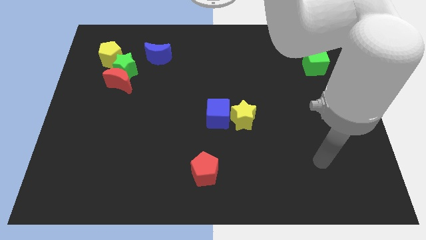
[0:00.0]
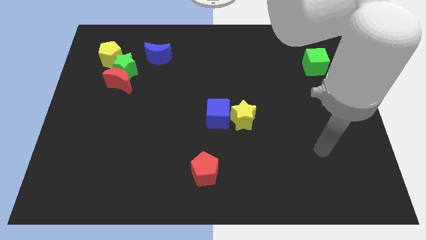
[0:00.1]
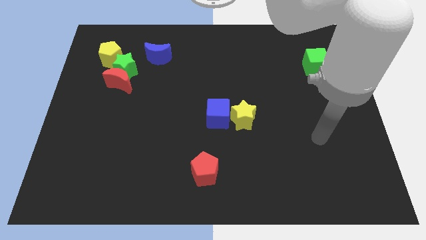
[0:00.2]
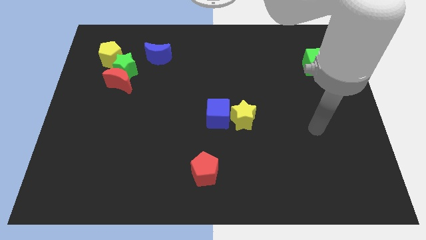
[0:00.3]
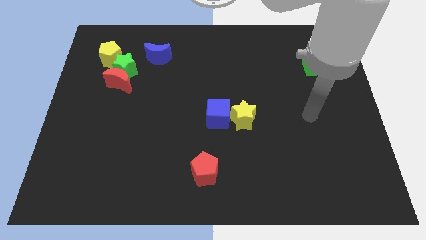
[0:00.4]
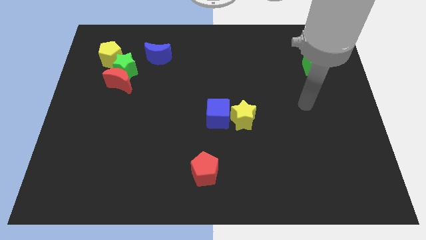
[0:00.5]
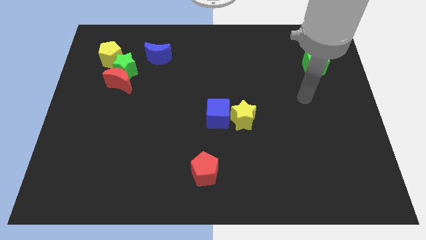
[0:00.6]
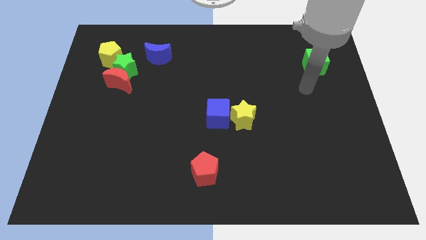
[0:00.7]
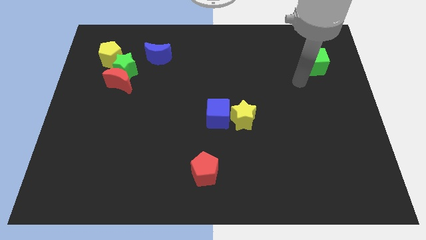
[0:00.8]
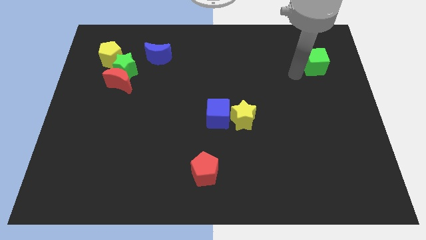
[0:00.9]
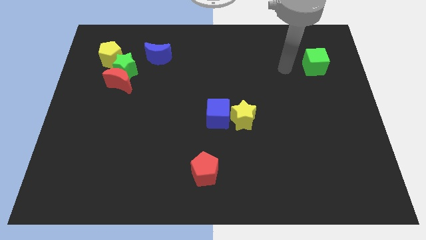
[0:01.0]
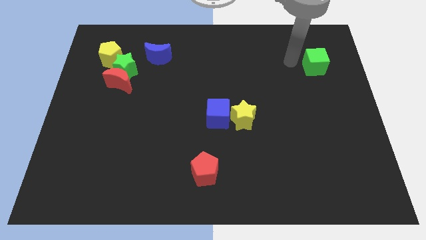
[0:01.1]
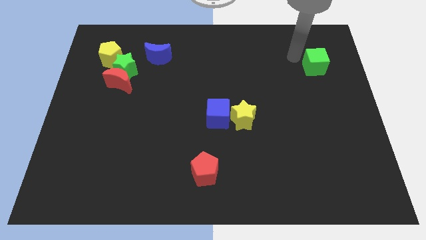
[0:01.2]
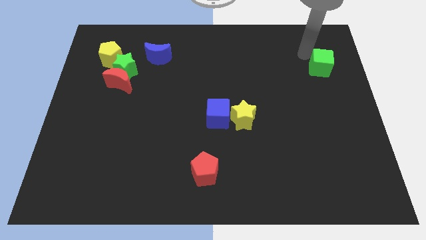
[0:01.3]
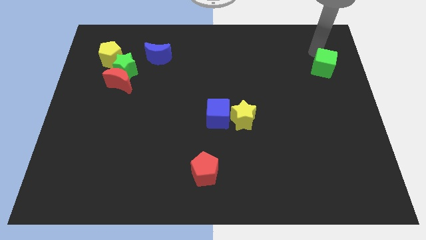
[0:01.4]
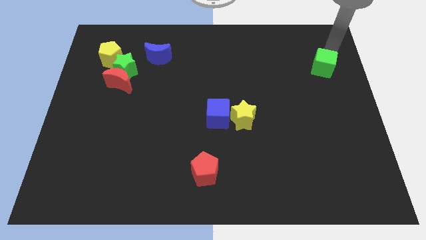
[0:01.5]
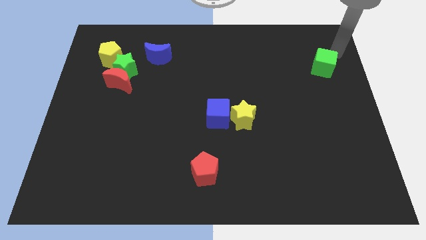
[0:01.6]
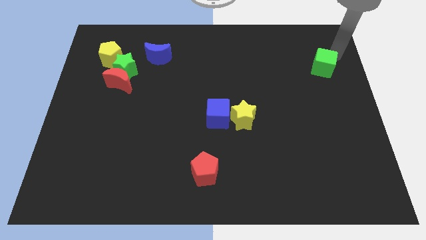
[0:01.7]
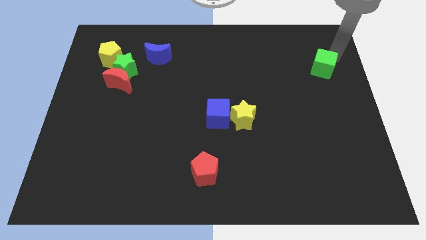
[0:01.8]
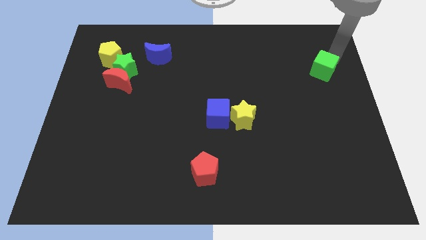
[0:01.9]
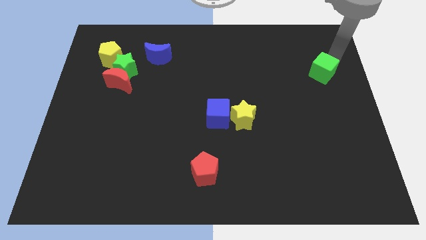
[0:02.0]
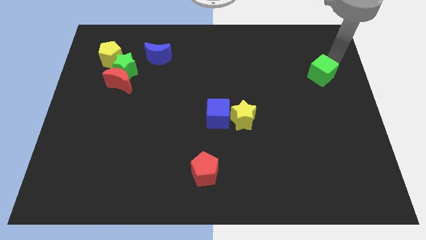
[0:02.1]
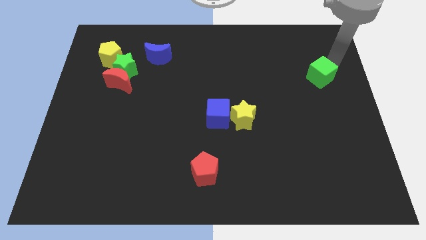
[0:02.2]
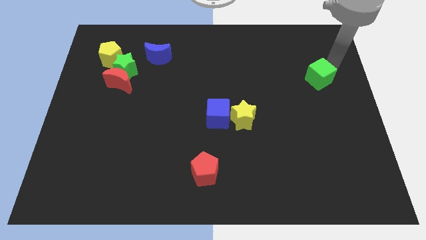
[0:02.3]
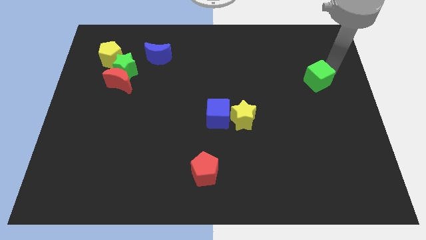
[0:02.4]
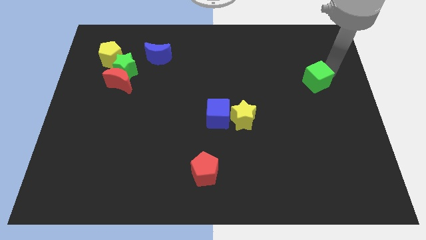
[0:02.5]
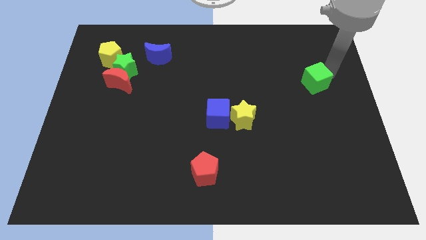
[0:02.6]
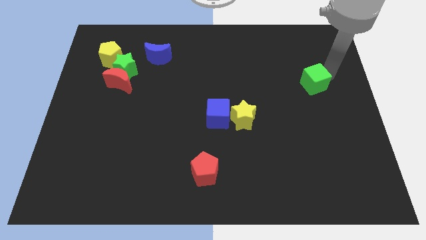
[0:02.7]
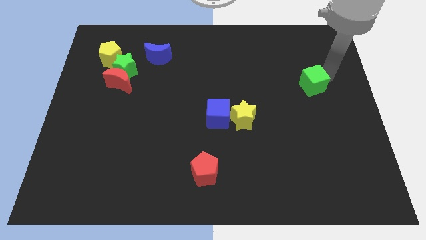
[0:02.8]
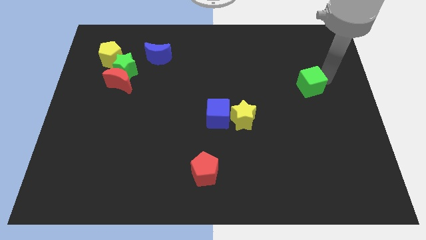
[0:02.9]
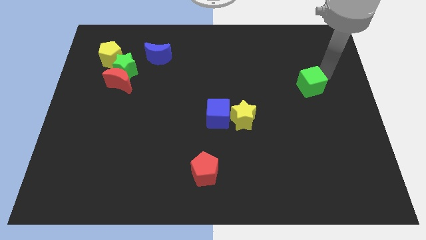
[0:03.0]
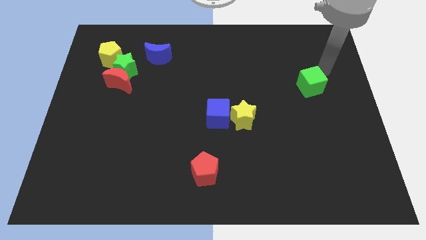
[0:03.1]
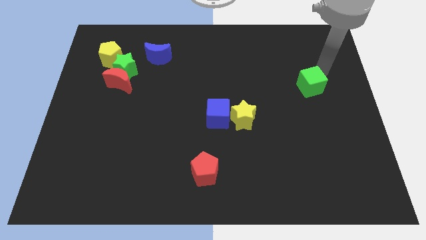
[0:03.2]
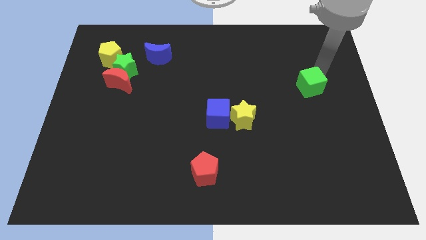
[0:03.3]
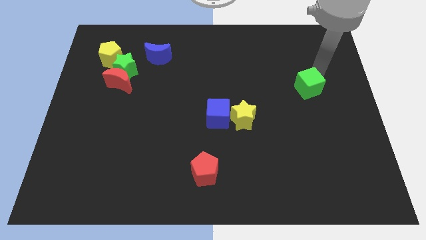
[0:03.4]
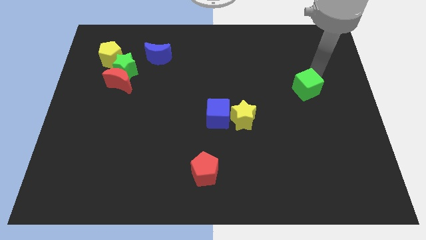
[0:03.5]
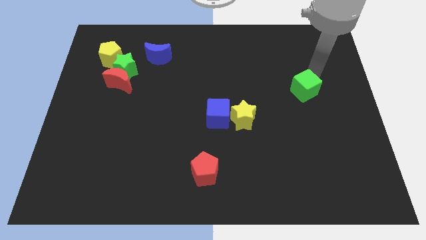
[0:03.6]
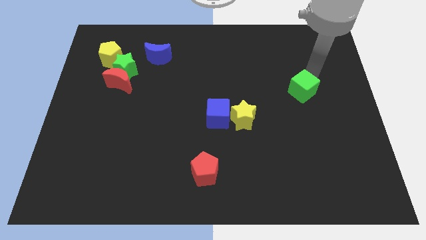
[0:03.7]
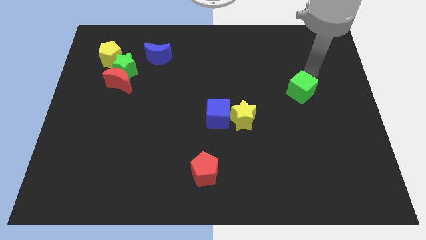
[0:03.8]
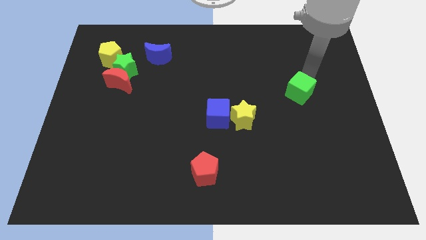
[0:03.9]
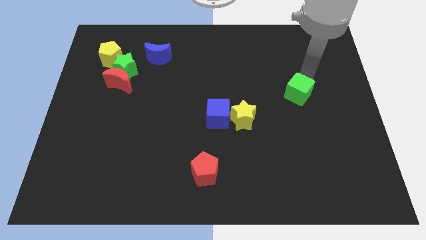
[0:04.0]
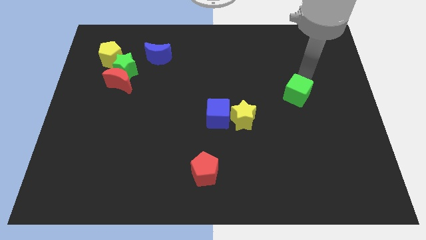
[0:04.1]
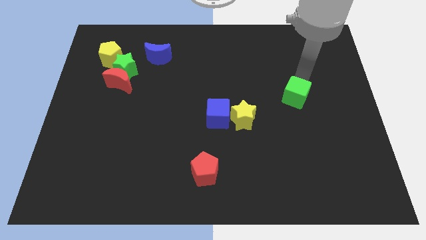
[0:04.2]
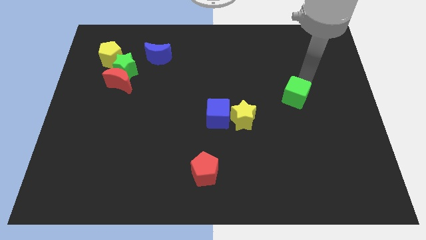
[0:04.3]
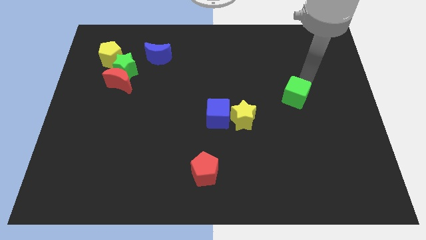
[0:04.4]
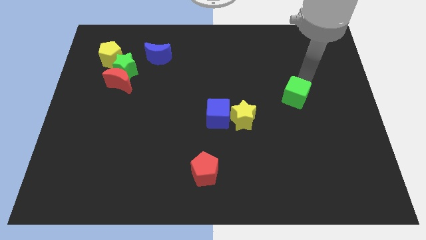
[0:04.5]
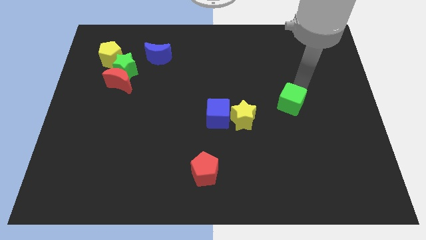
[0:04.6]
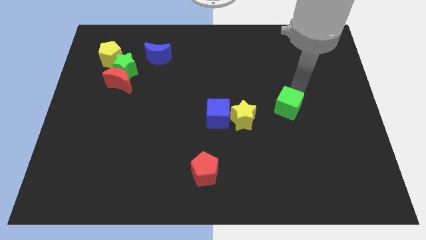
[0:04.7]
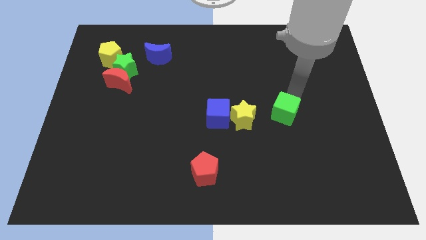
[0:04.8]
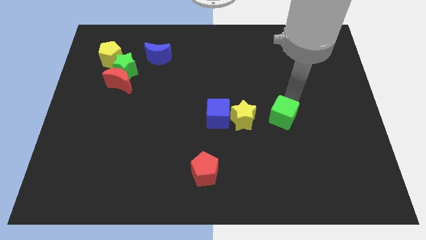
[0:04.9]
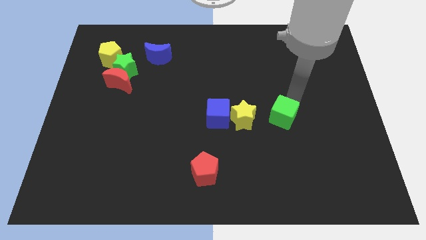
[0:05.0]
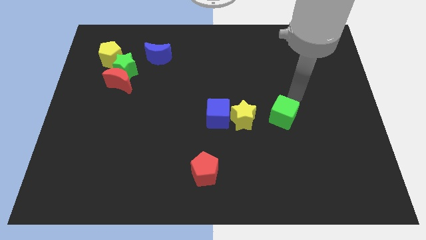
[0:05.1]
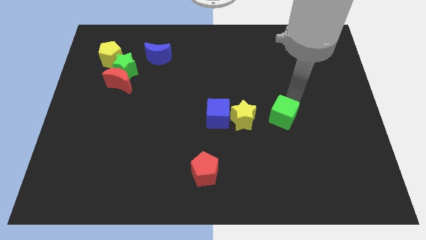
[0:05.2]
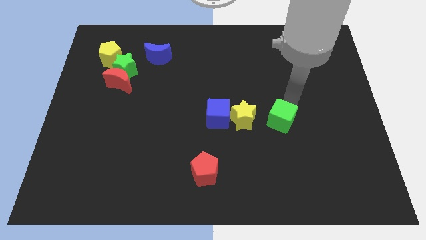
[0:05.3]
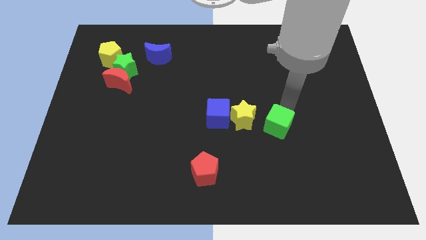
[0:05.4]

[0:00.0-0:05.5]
slide the green cube diagonally down and to the left

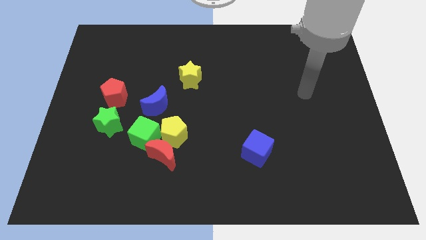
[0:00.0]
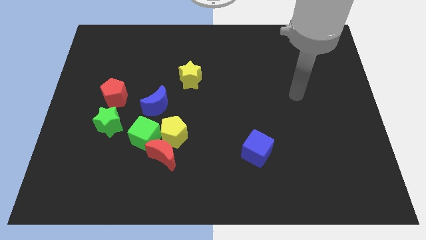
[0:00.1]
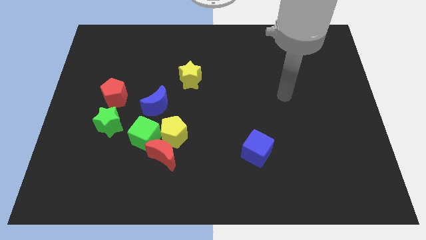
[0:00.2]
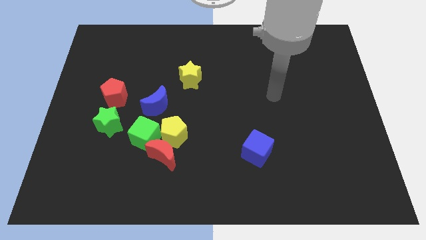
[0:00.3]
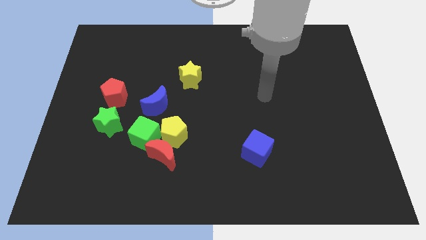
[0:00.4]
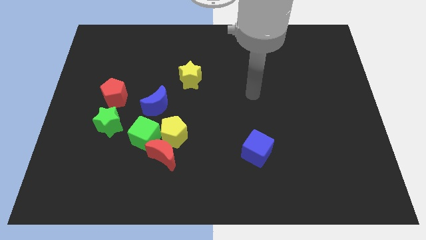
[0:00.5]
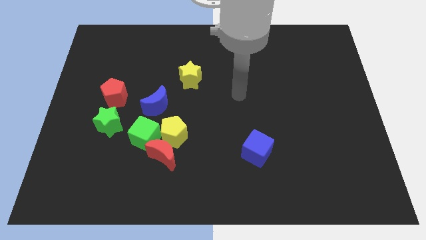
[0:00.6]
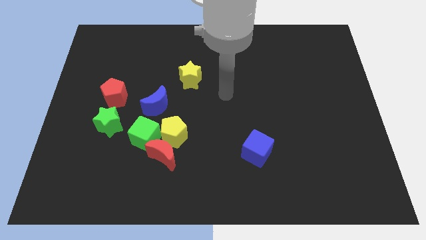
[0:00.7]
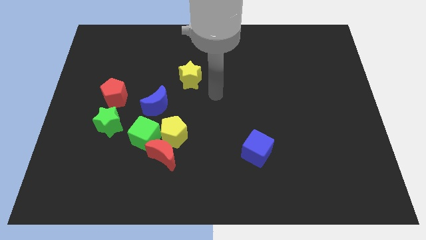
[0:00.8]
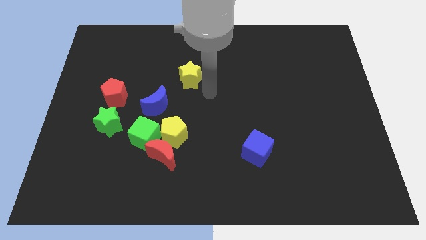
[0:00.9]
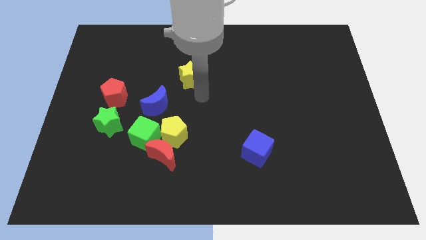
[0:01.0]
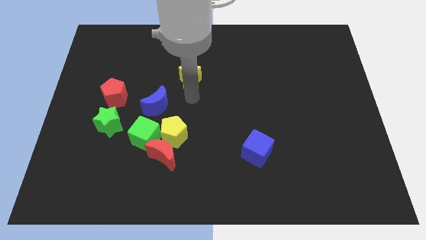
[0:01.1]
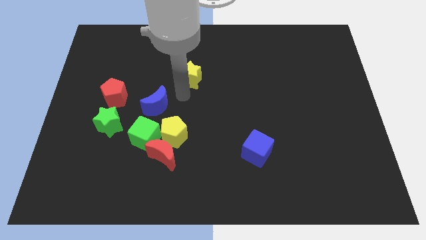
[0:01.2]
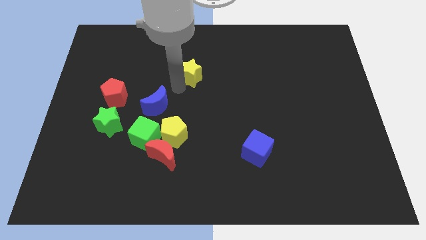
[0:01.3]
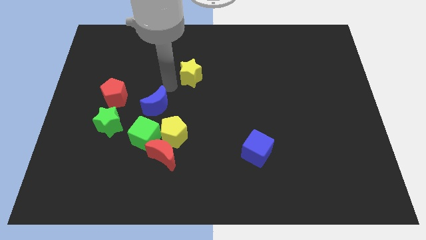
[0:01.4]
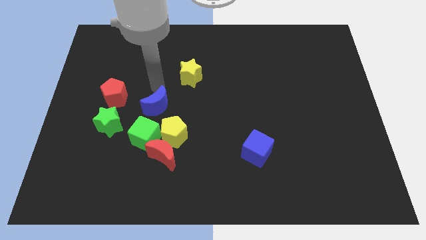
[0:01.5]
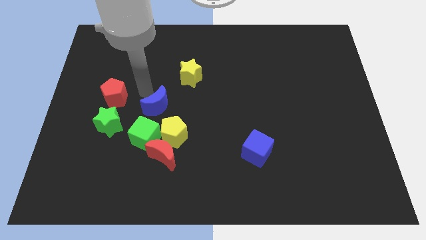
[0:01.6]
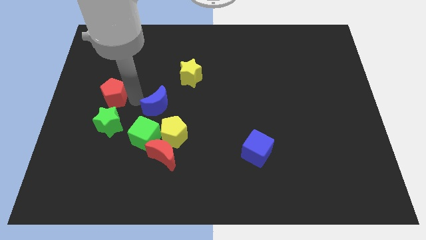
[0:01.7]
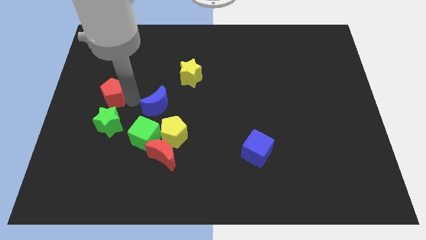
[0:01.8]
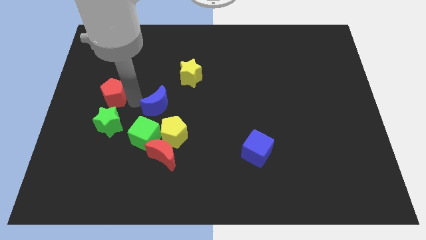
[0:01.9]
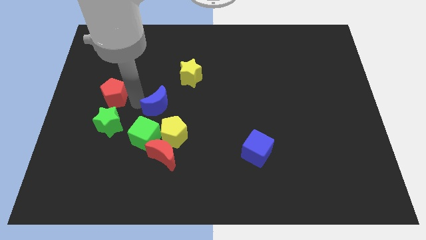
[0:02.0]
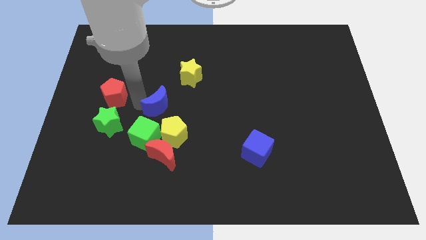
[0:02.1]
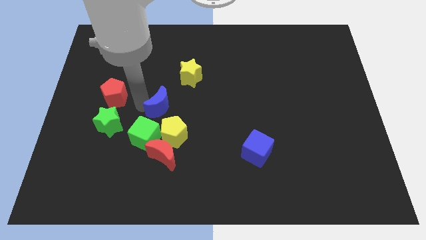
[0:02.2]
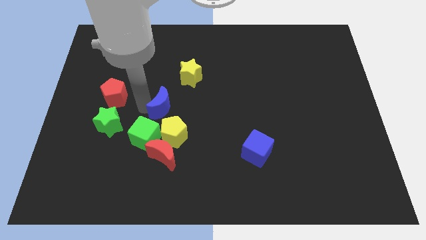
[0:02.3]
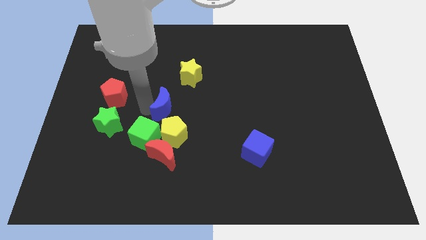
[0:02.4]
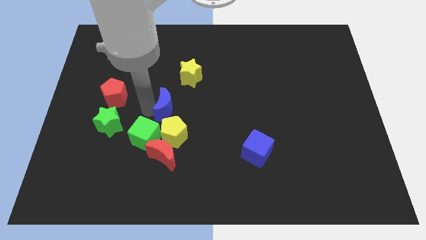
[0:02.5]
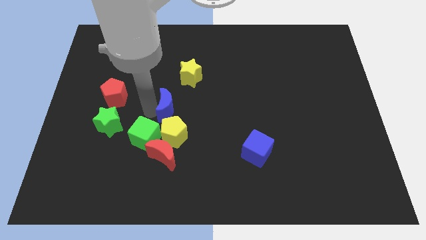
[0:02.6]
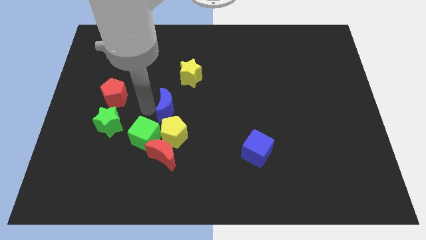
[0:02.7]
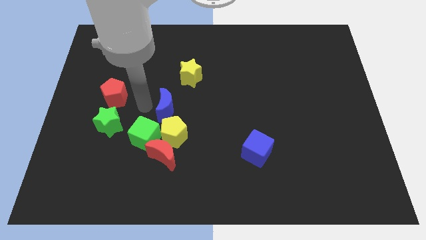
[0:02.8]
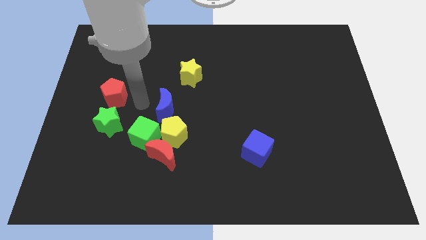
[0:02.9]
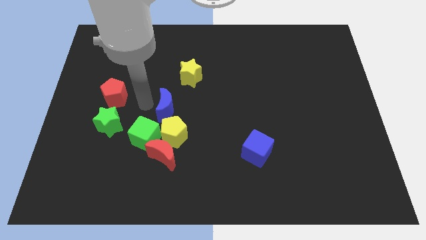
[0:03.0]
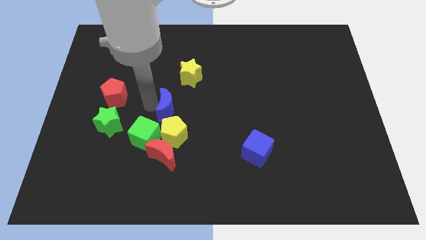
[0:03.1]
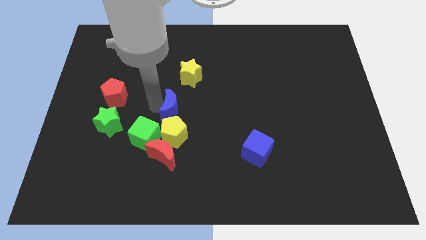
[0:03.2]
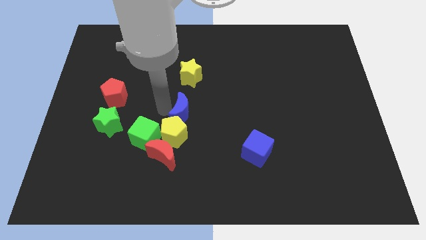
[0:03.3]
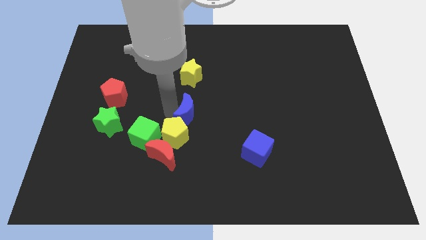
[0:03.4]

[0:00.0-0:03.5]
push the blue moon slightly to the right
